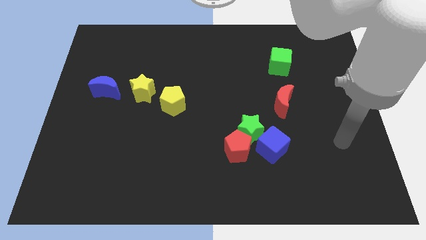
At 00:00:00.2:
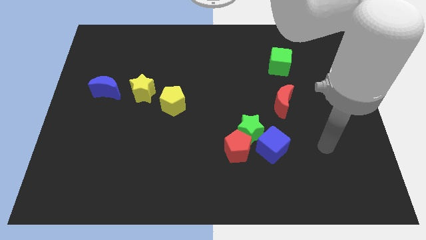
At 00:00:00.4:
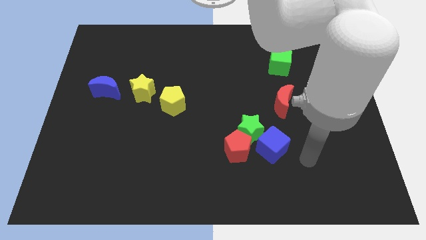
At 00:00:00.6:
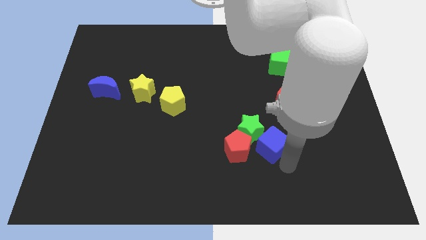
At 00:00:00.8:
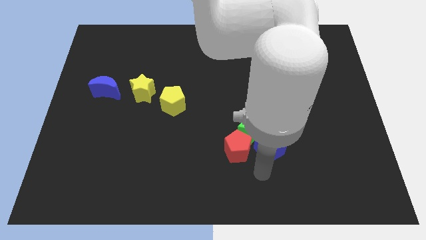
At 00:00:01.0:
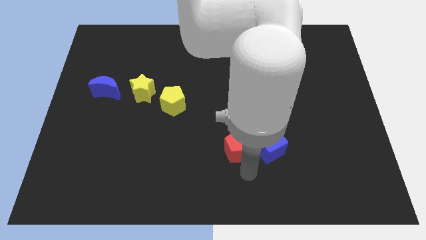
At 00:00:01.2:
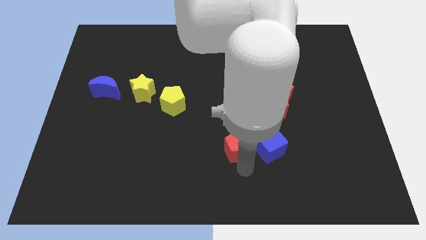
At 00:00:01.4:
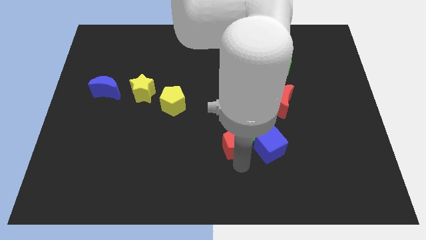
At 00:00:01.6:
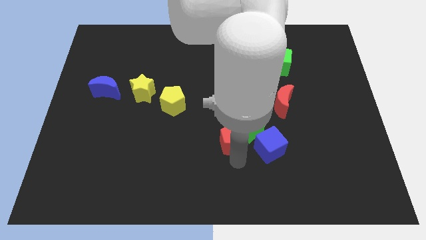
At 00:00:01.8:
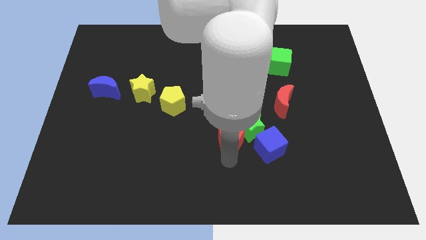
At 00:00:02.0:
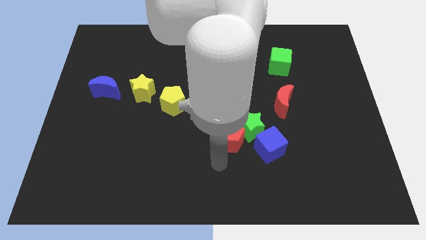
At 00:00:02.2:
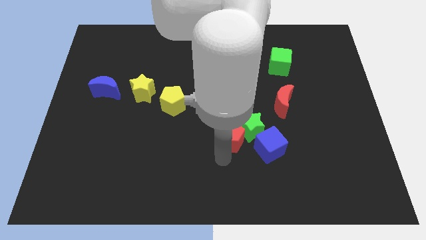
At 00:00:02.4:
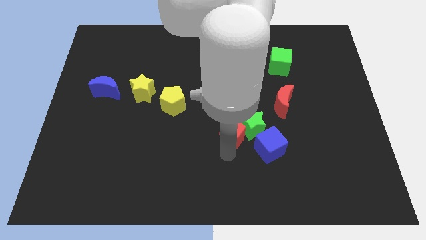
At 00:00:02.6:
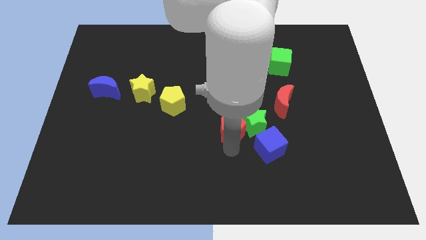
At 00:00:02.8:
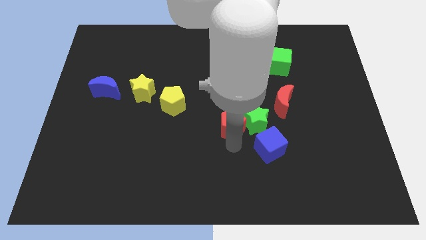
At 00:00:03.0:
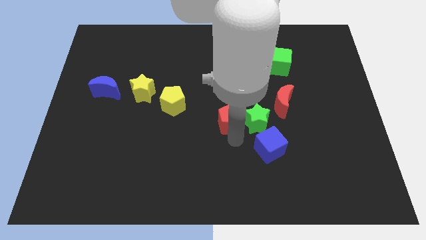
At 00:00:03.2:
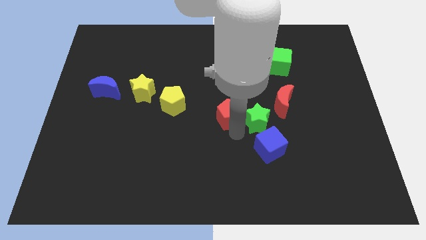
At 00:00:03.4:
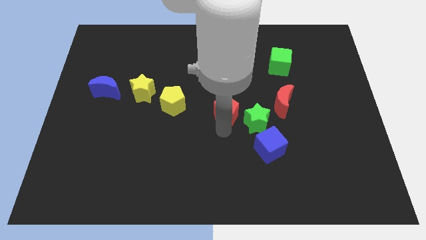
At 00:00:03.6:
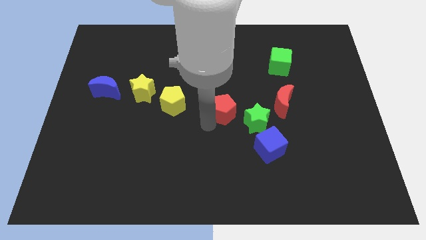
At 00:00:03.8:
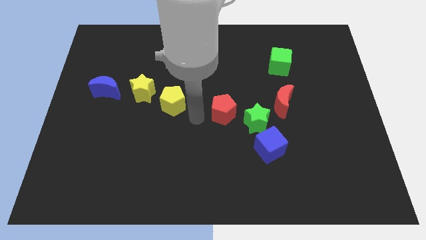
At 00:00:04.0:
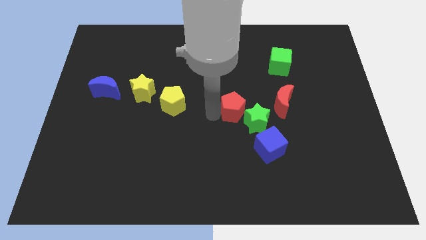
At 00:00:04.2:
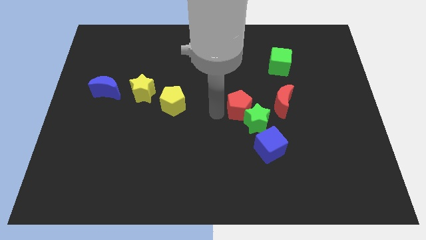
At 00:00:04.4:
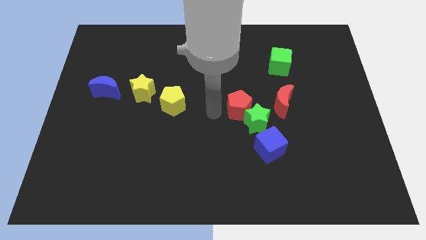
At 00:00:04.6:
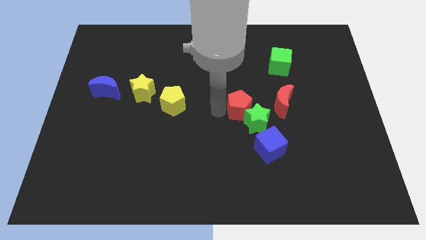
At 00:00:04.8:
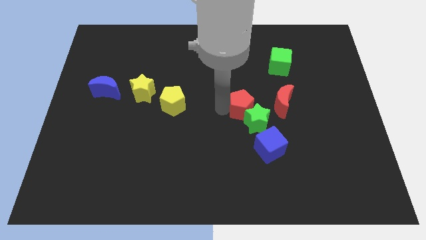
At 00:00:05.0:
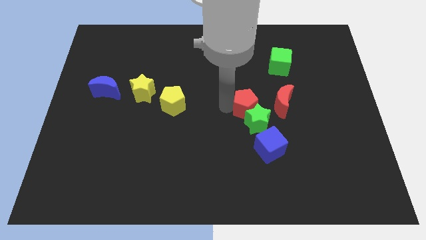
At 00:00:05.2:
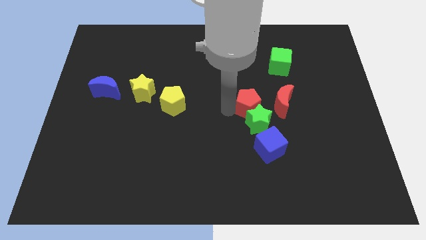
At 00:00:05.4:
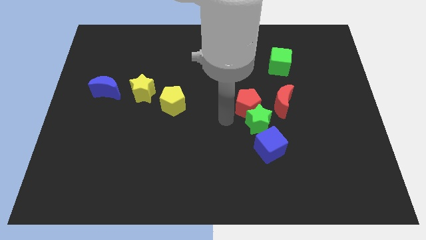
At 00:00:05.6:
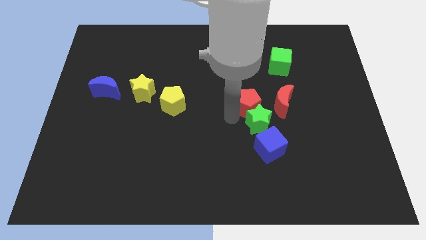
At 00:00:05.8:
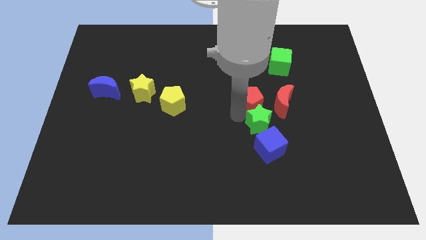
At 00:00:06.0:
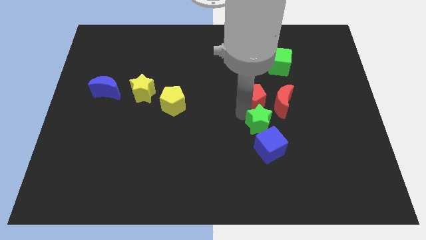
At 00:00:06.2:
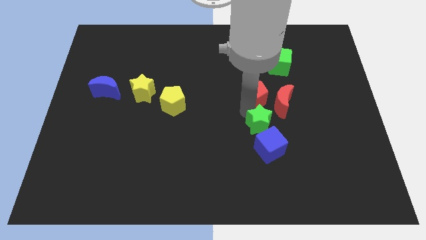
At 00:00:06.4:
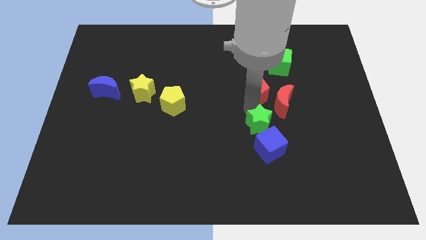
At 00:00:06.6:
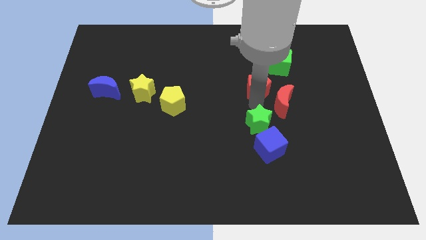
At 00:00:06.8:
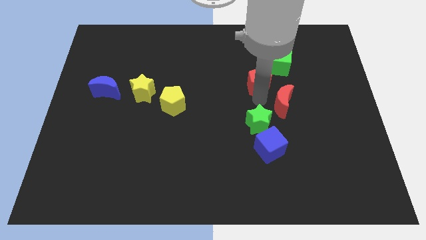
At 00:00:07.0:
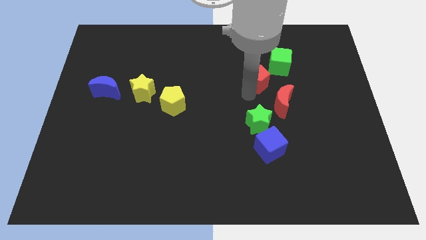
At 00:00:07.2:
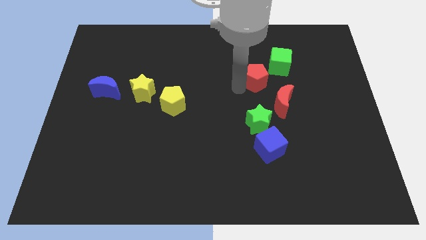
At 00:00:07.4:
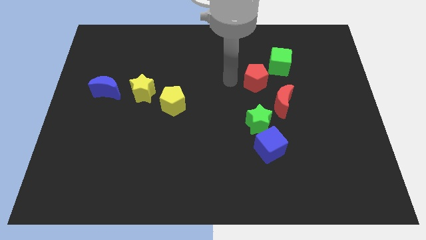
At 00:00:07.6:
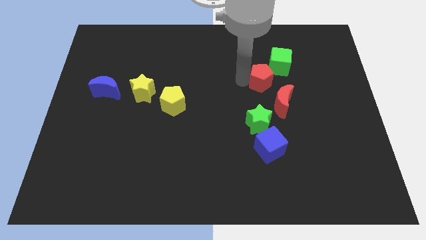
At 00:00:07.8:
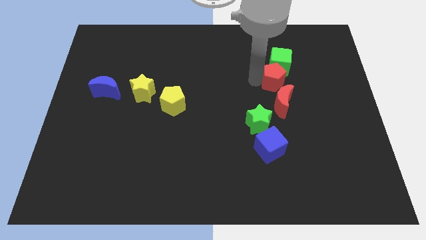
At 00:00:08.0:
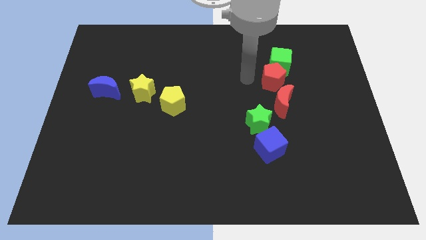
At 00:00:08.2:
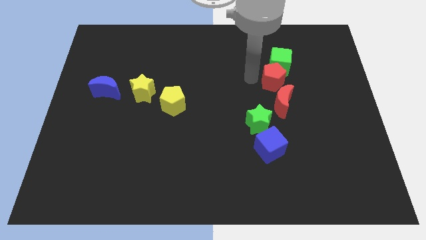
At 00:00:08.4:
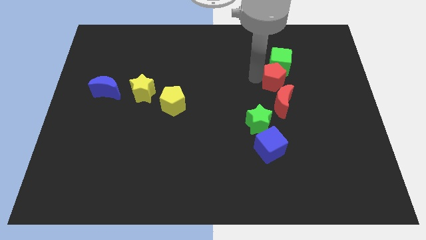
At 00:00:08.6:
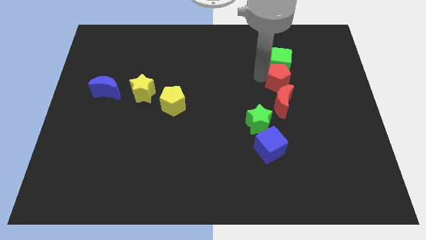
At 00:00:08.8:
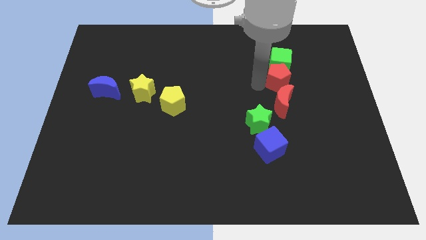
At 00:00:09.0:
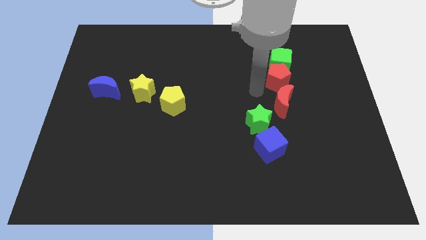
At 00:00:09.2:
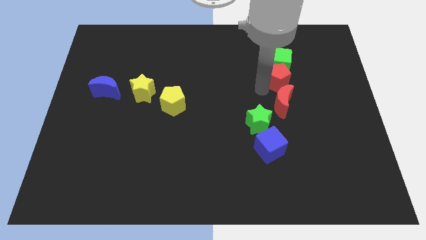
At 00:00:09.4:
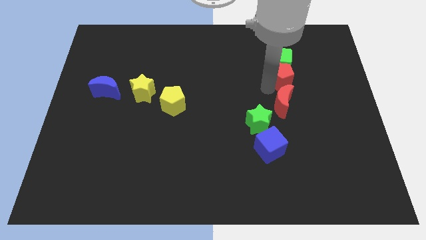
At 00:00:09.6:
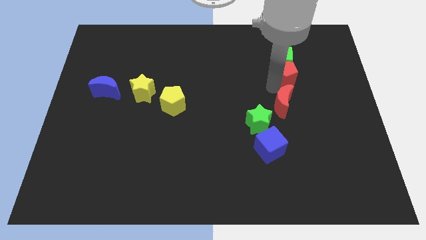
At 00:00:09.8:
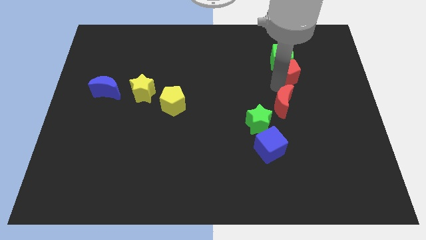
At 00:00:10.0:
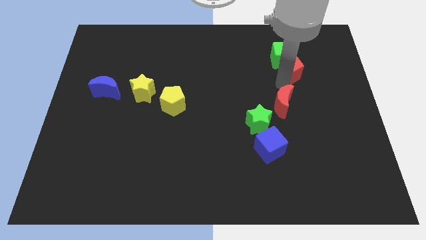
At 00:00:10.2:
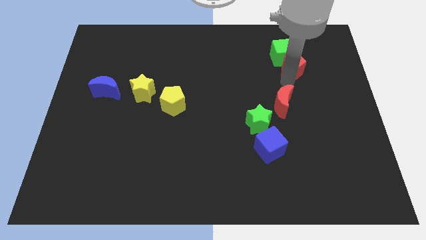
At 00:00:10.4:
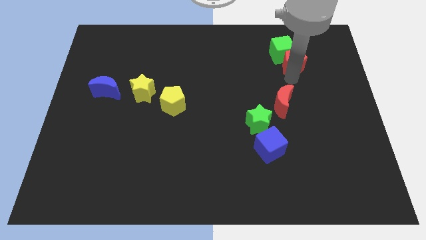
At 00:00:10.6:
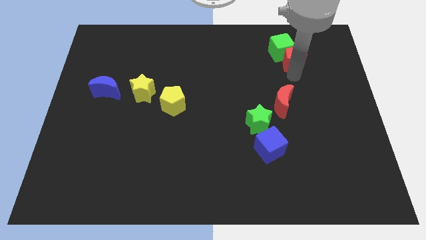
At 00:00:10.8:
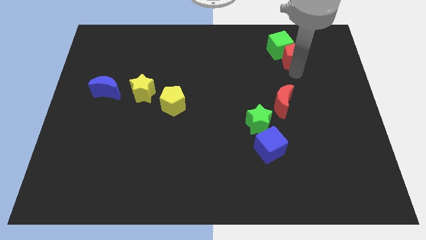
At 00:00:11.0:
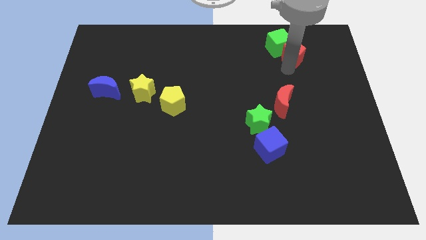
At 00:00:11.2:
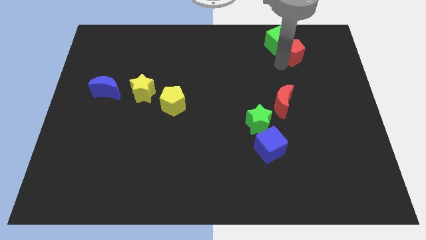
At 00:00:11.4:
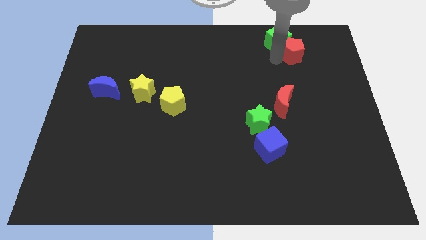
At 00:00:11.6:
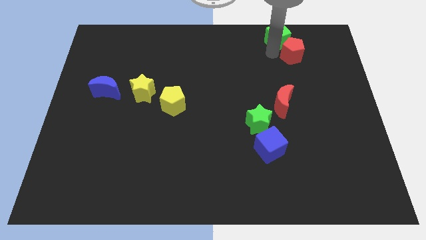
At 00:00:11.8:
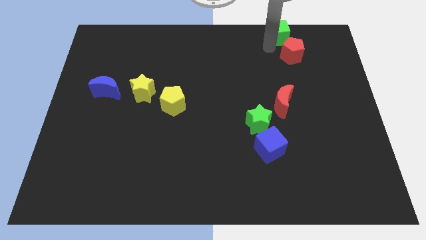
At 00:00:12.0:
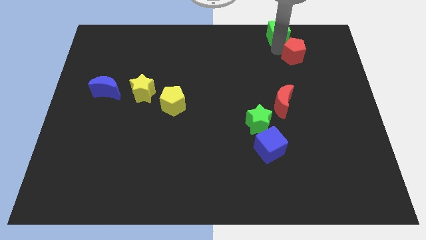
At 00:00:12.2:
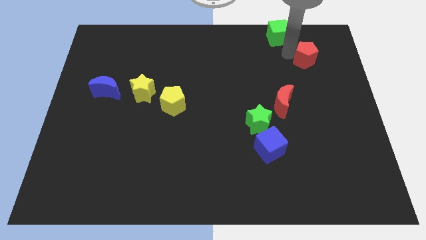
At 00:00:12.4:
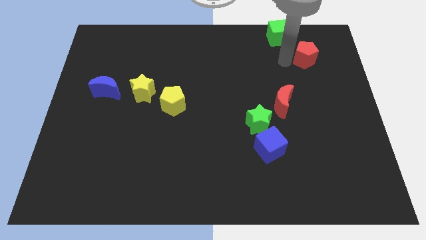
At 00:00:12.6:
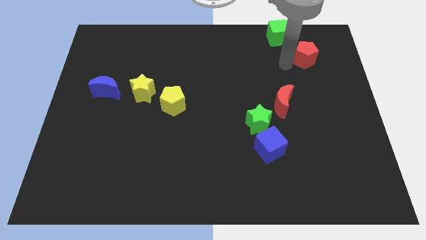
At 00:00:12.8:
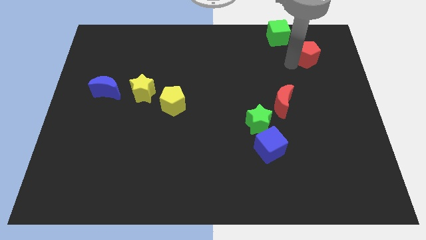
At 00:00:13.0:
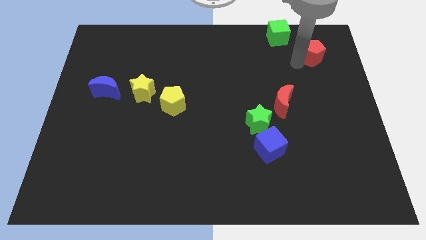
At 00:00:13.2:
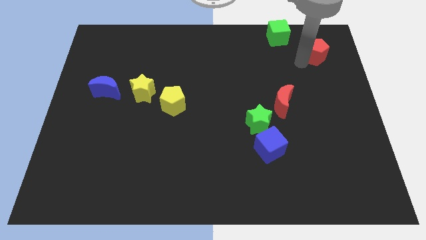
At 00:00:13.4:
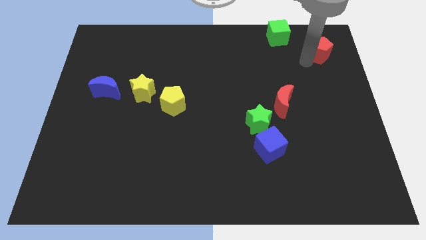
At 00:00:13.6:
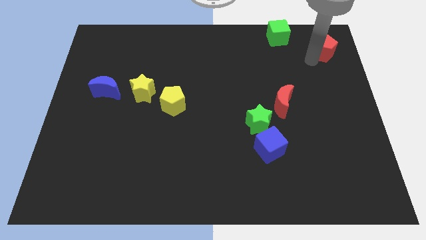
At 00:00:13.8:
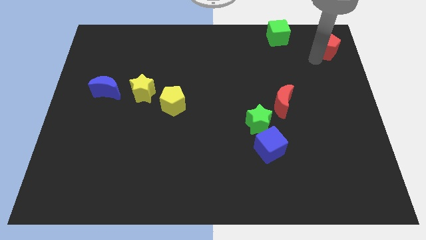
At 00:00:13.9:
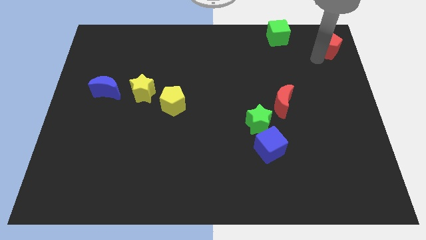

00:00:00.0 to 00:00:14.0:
slide the red pentagon to the top right of the board

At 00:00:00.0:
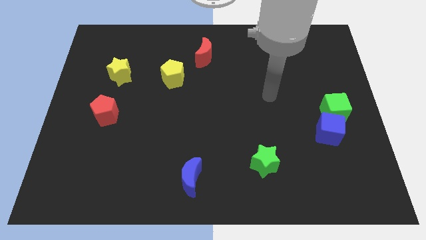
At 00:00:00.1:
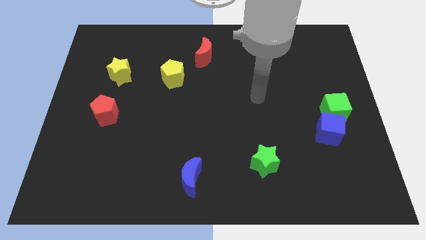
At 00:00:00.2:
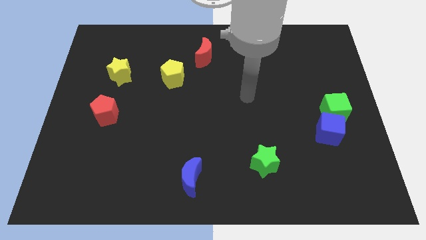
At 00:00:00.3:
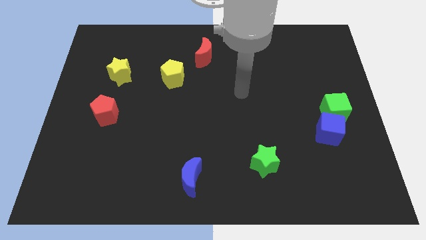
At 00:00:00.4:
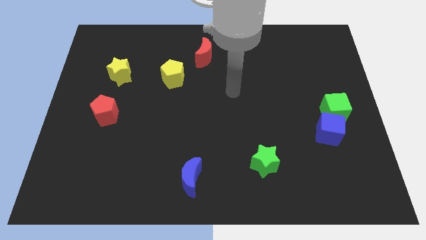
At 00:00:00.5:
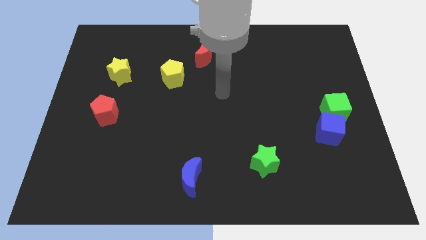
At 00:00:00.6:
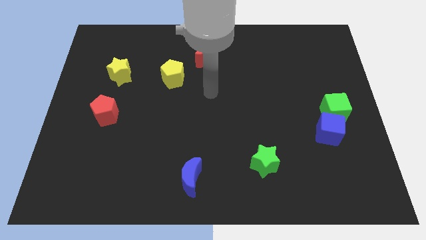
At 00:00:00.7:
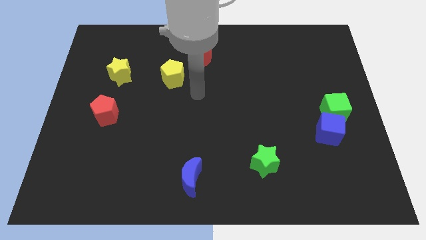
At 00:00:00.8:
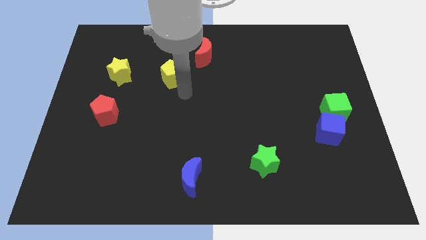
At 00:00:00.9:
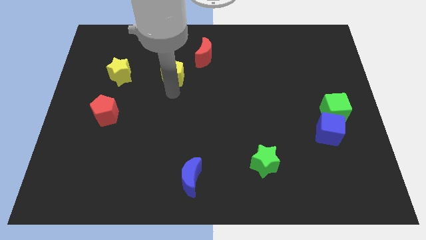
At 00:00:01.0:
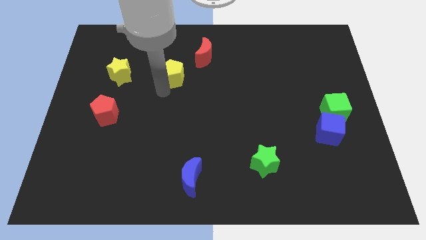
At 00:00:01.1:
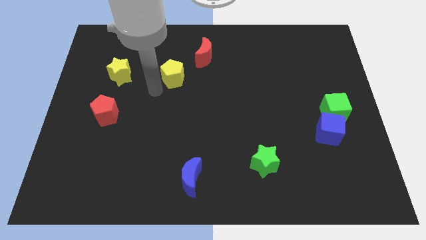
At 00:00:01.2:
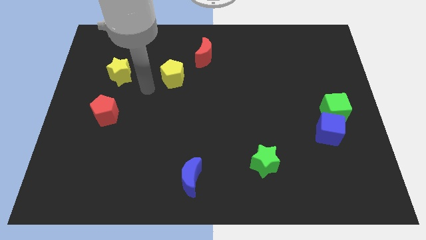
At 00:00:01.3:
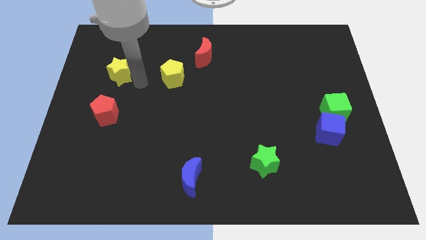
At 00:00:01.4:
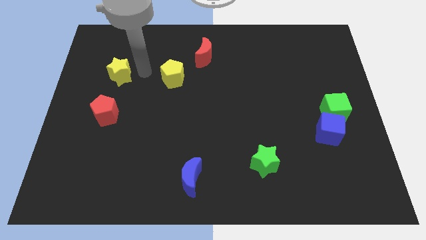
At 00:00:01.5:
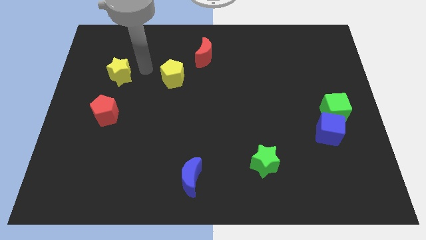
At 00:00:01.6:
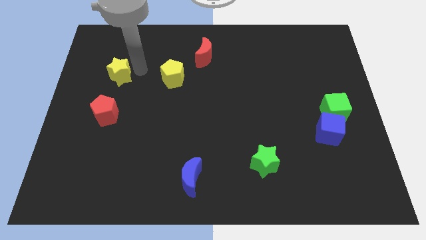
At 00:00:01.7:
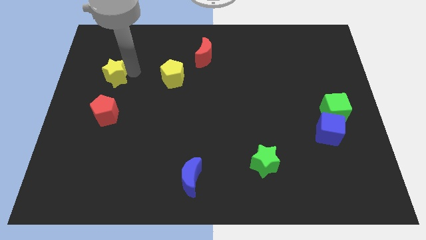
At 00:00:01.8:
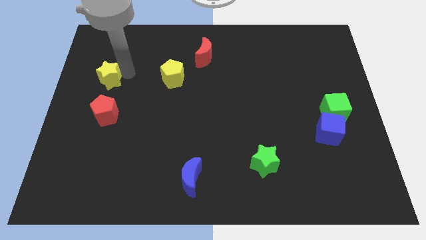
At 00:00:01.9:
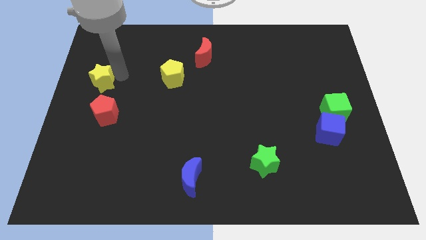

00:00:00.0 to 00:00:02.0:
push the yellow star to the center left
